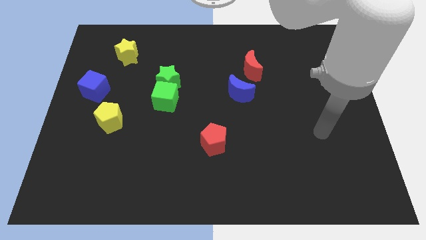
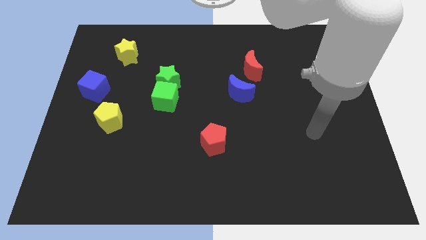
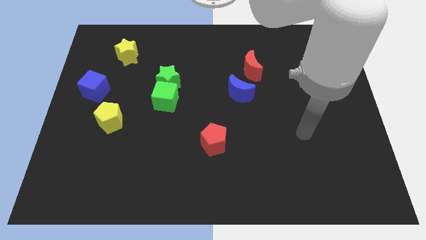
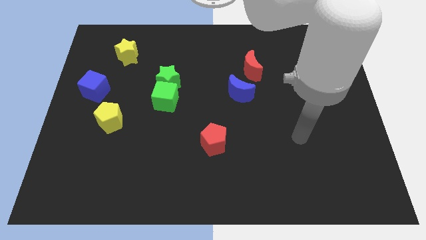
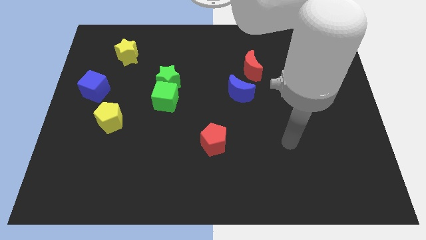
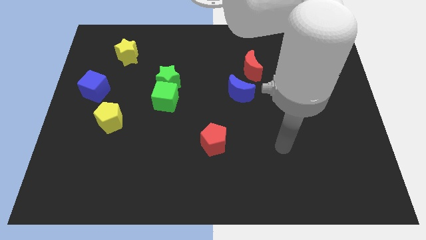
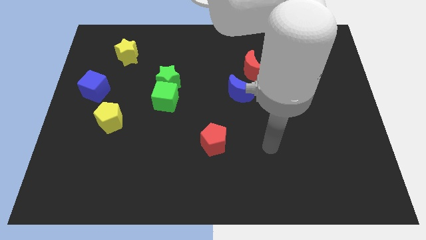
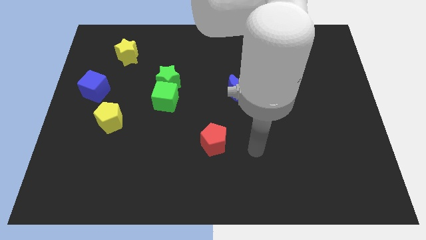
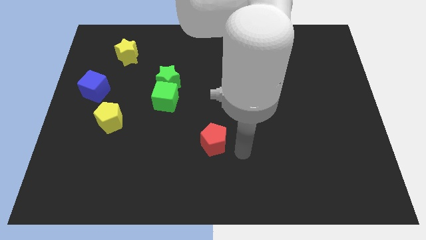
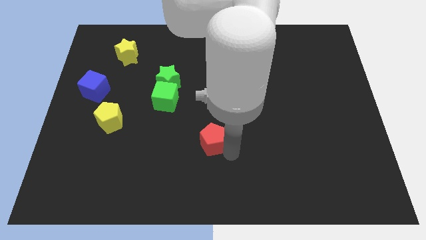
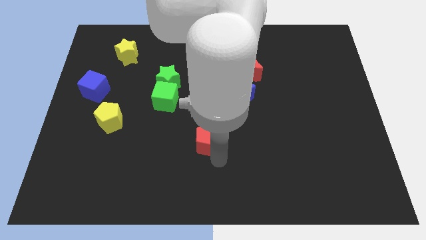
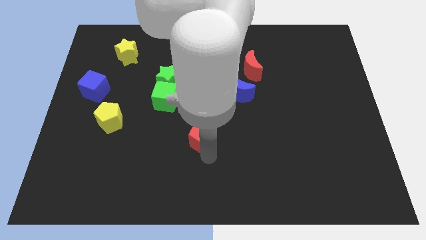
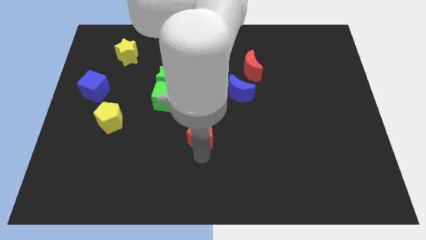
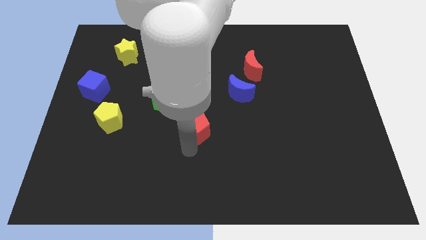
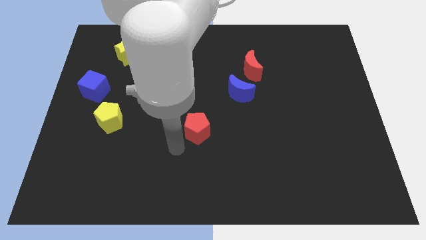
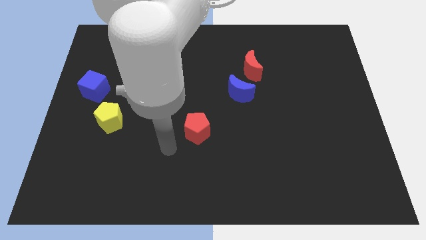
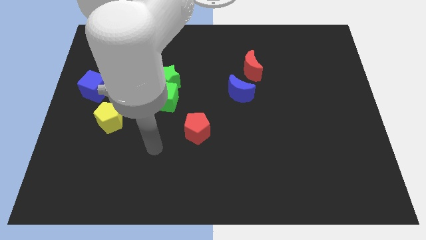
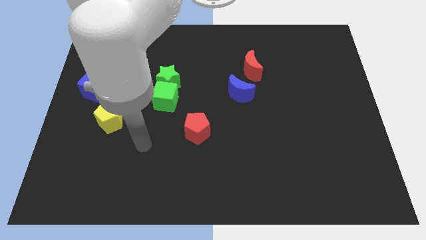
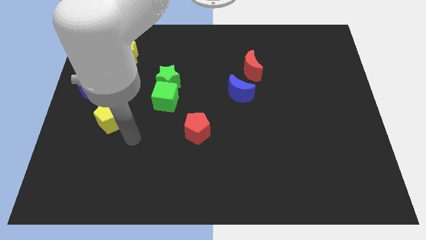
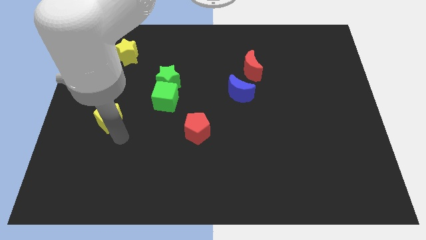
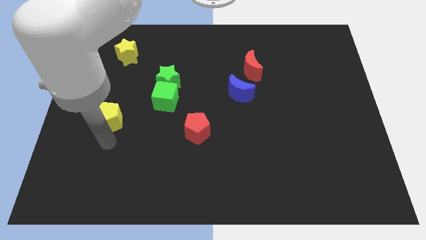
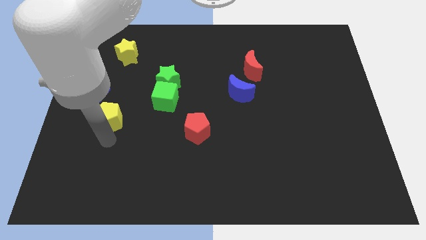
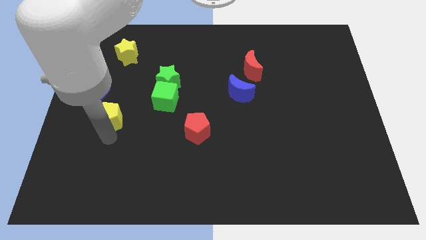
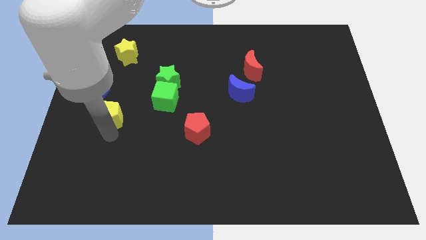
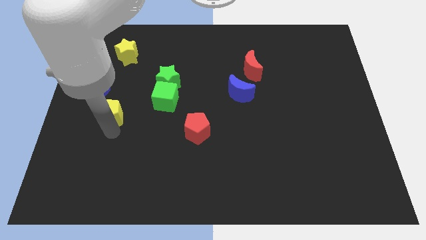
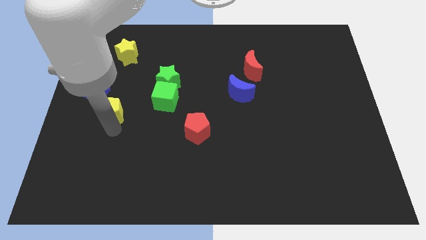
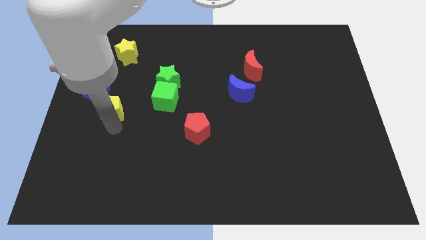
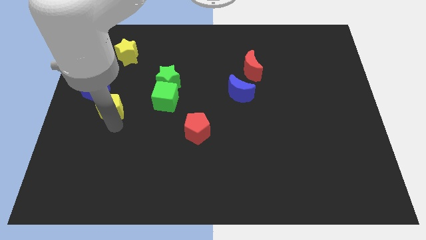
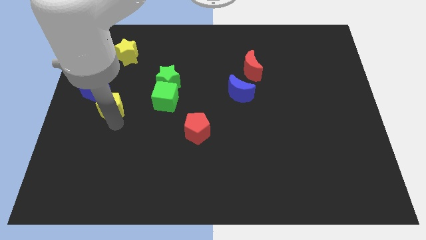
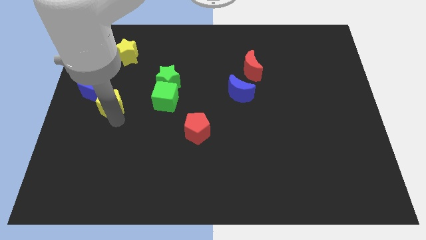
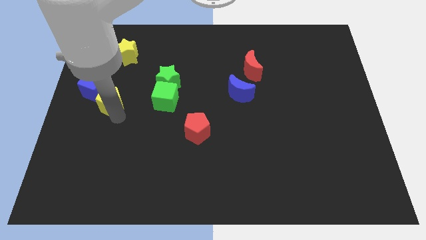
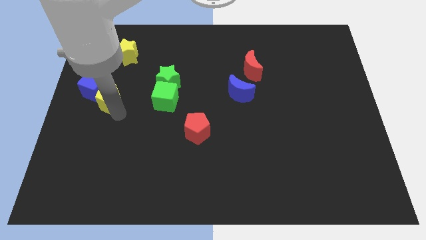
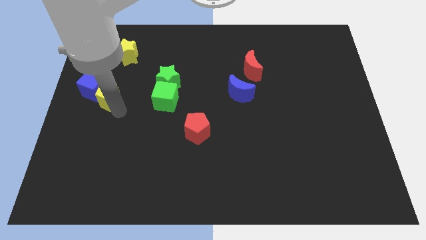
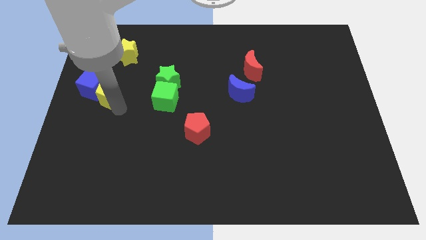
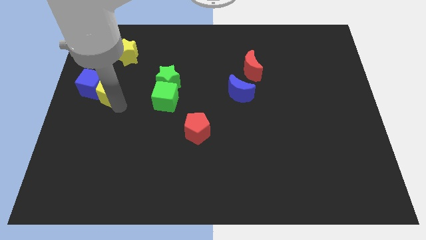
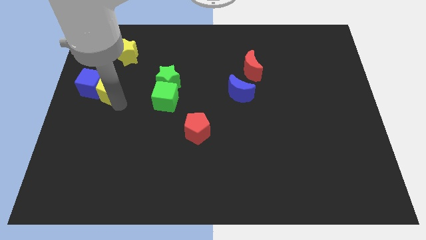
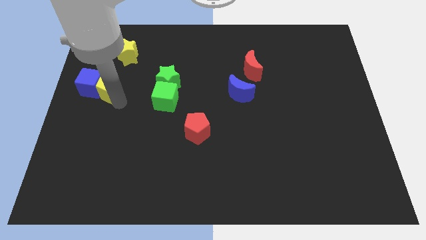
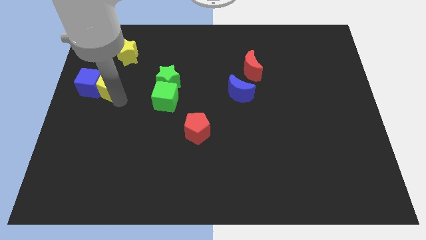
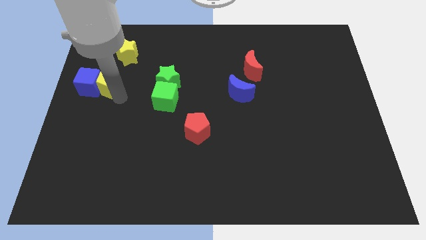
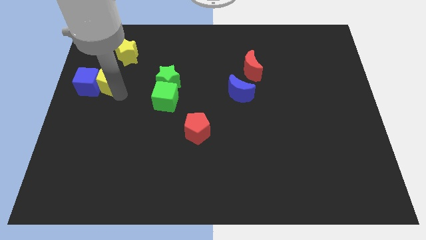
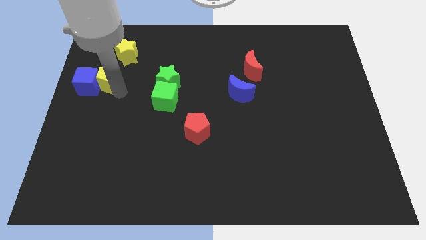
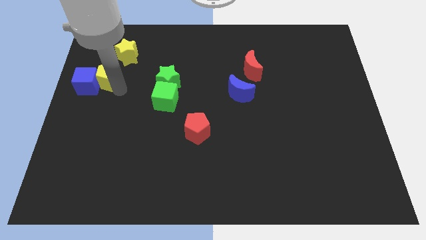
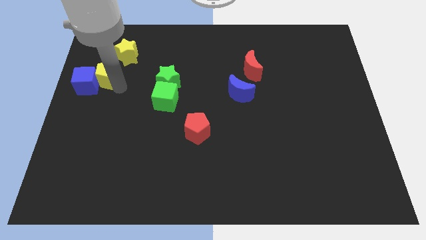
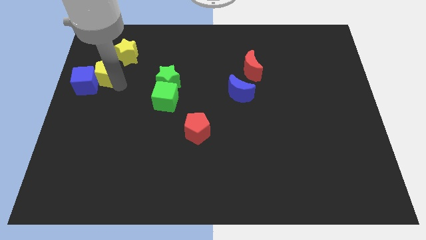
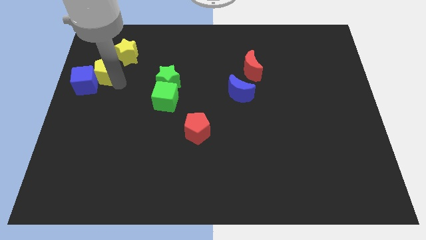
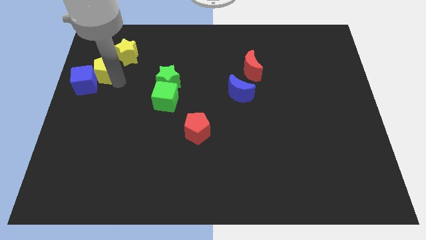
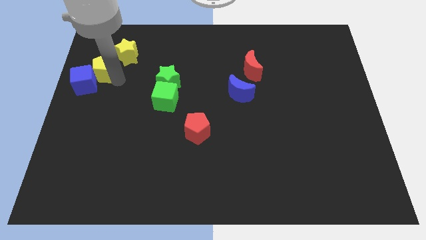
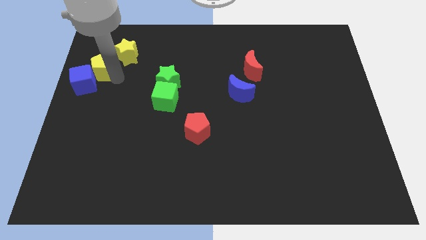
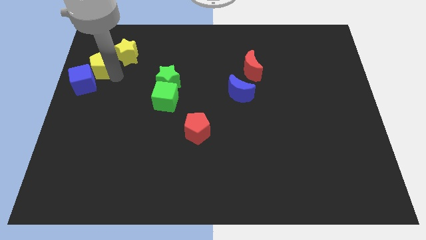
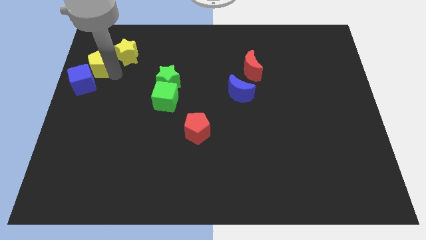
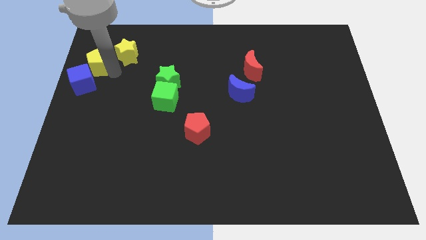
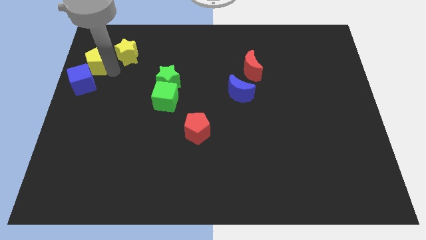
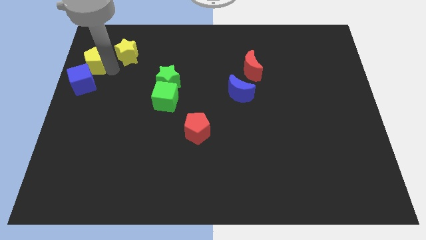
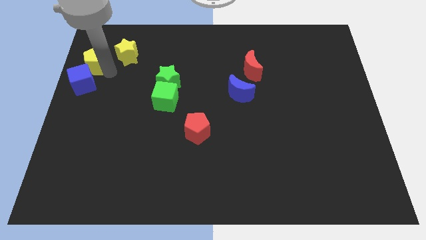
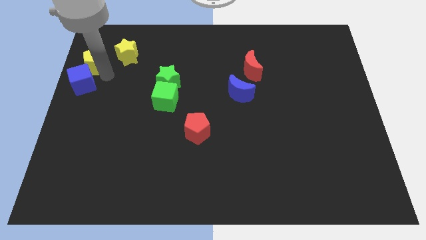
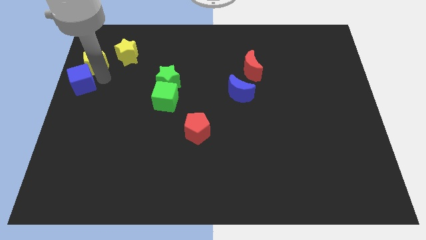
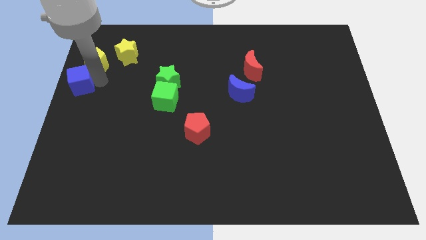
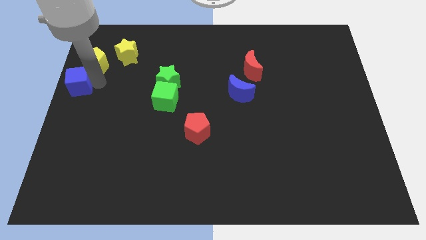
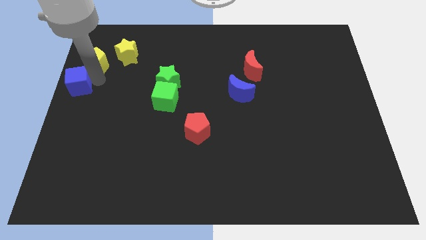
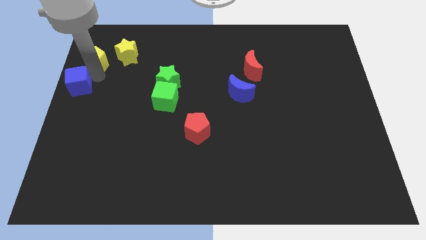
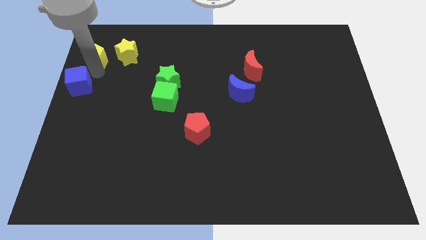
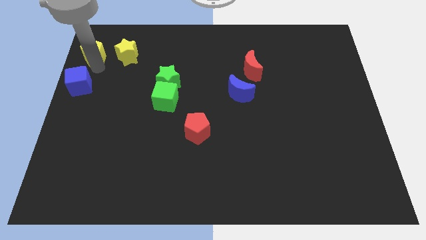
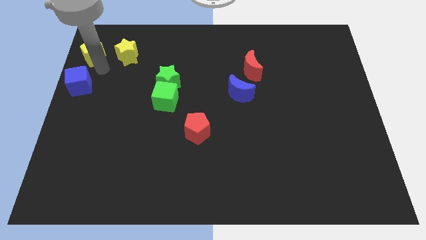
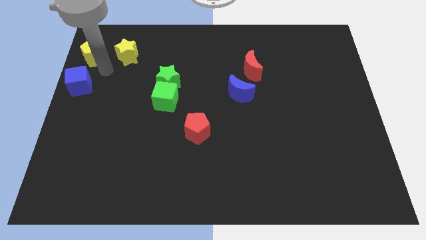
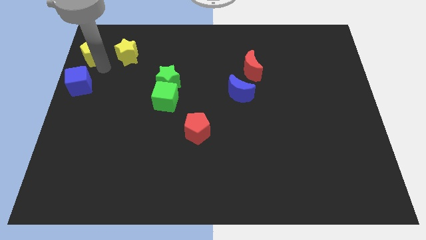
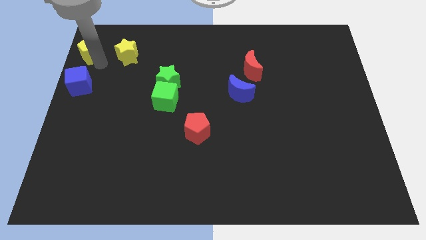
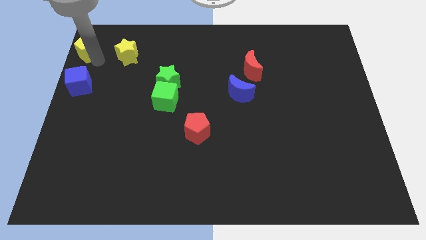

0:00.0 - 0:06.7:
push the yellow pentagon to the top left of the board

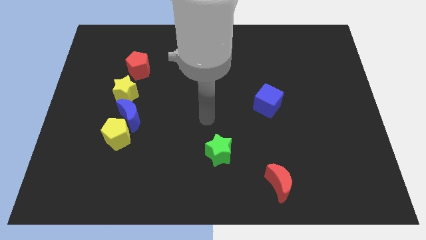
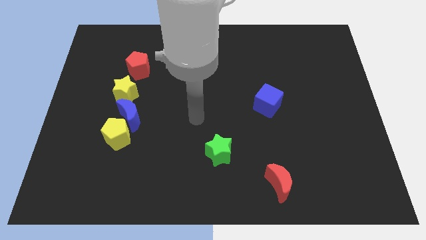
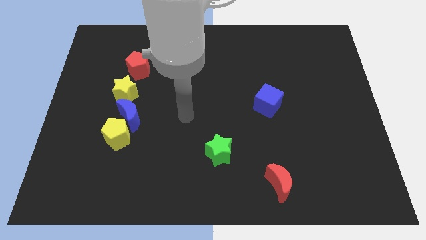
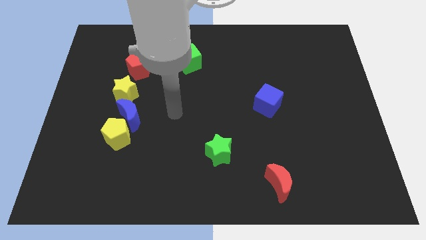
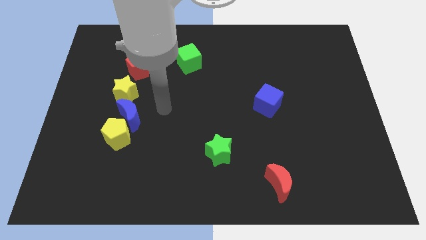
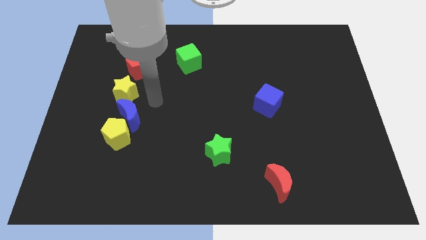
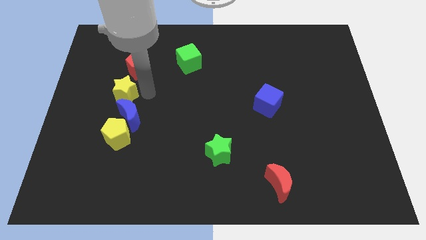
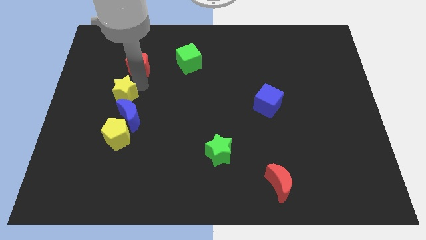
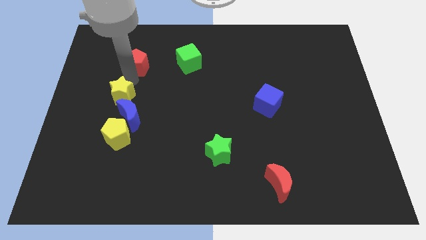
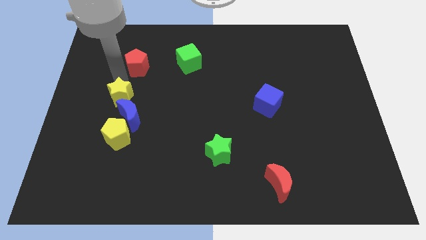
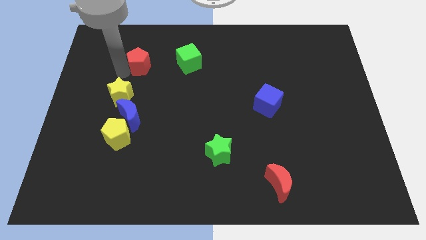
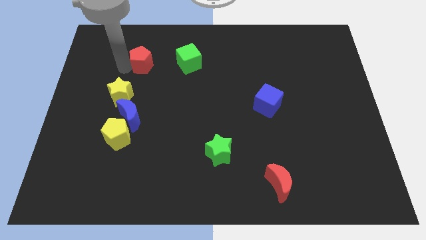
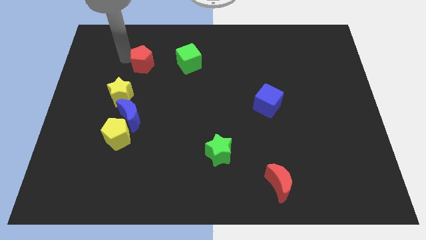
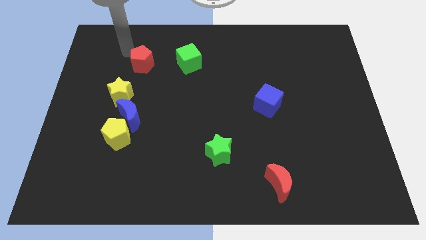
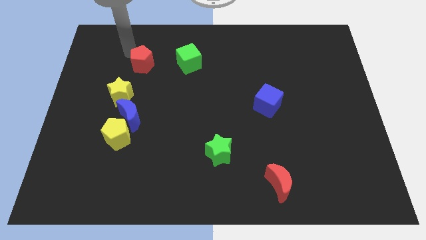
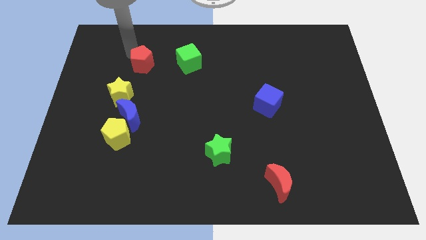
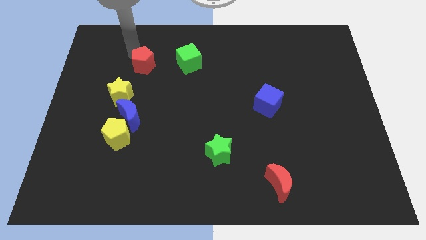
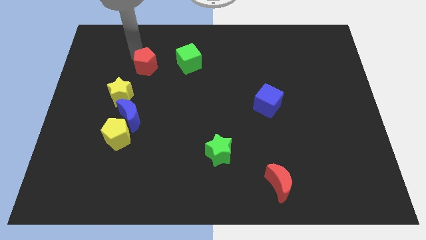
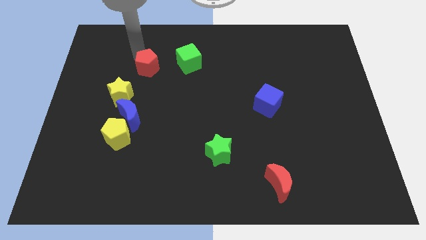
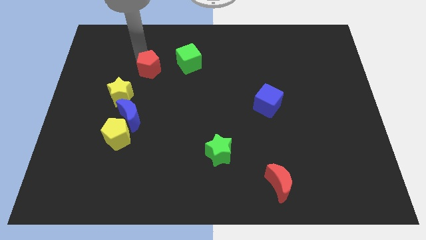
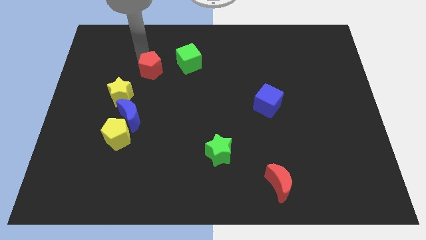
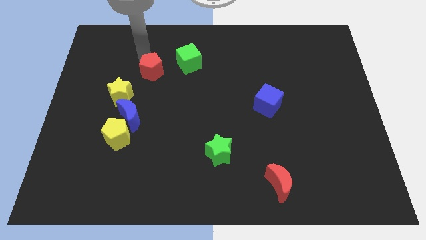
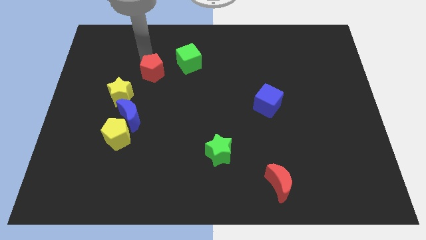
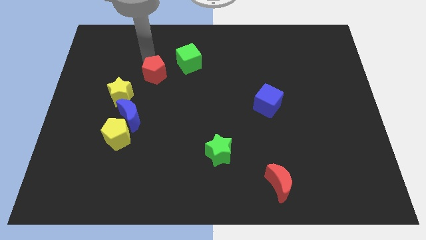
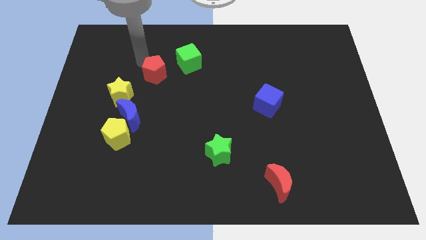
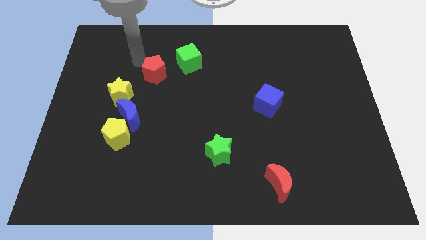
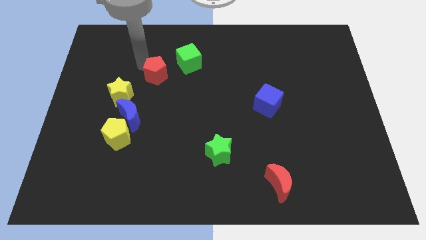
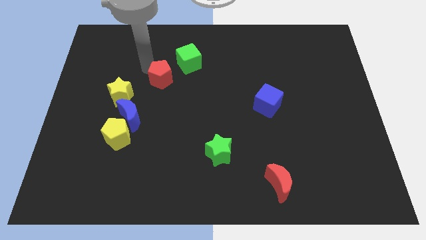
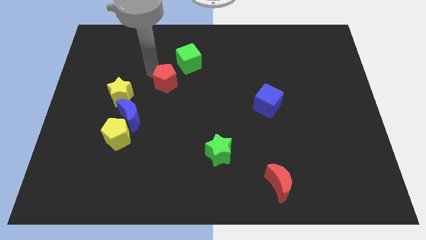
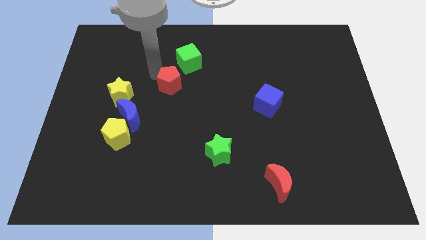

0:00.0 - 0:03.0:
slide the red pentagon to the middle
